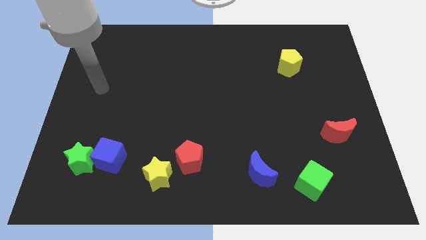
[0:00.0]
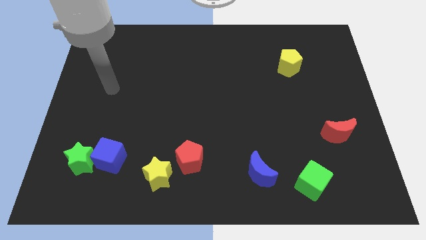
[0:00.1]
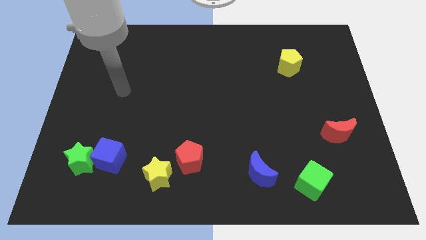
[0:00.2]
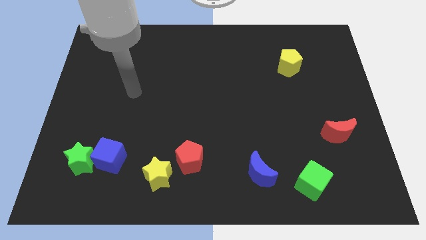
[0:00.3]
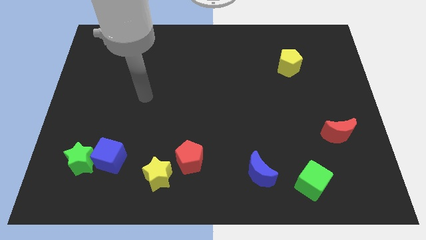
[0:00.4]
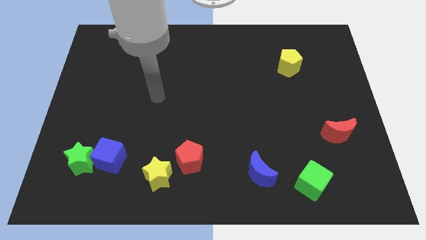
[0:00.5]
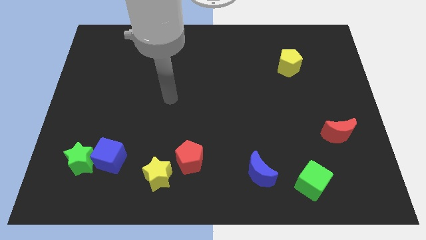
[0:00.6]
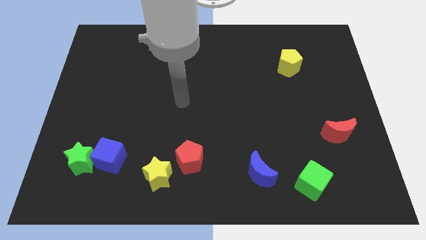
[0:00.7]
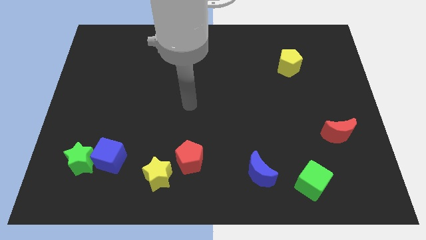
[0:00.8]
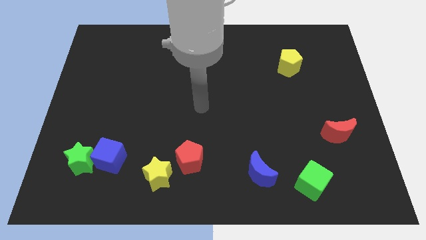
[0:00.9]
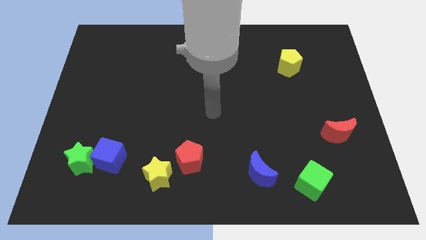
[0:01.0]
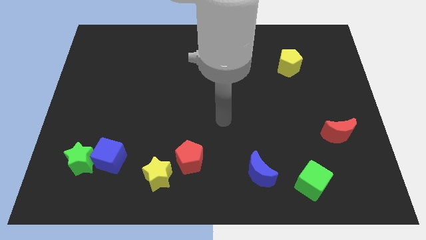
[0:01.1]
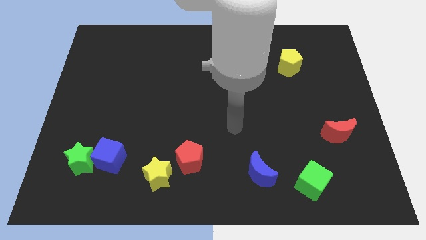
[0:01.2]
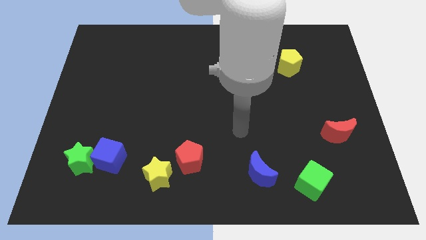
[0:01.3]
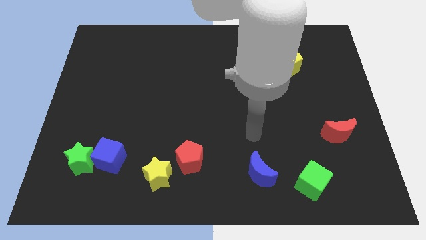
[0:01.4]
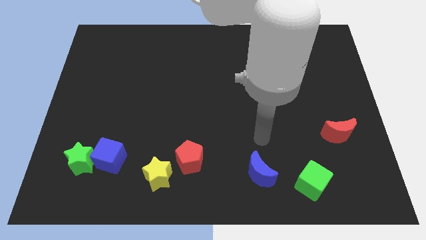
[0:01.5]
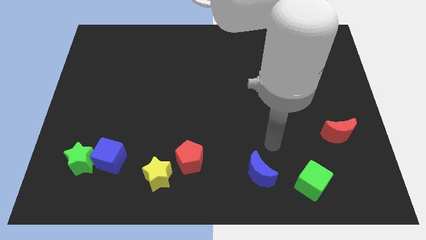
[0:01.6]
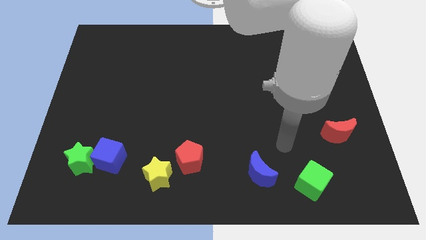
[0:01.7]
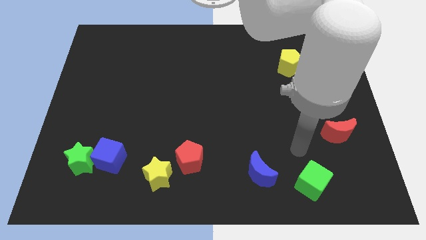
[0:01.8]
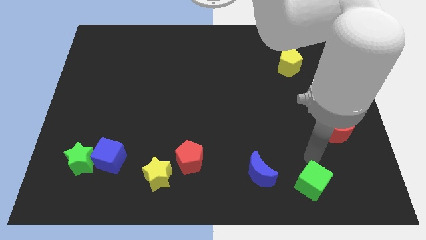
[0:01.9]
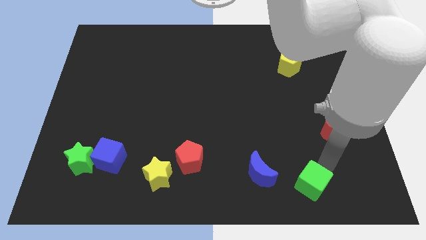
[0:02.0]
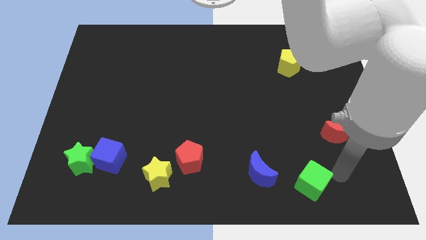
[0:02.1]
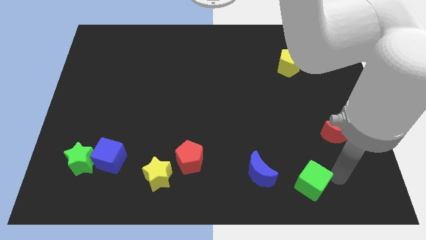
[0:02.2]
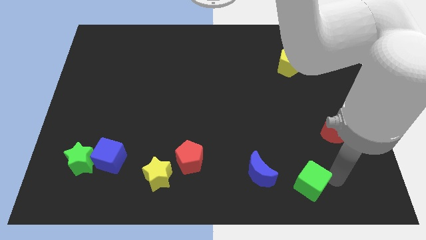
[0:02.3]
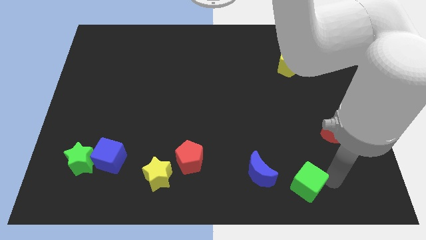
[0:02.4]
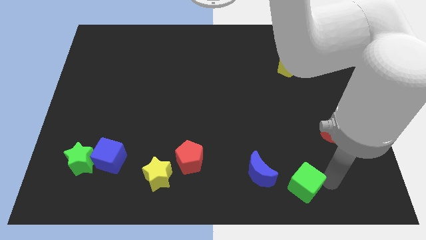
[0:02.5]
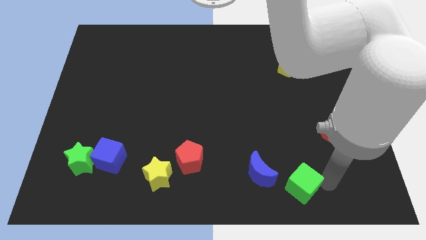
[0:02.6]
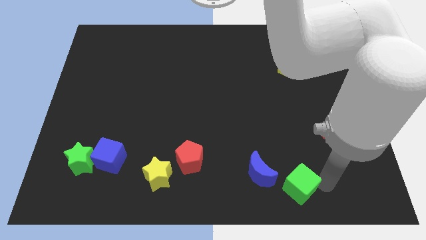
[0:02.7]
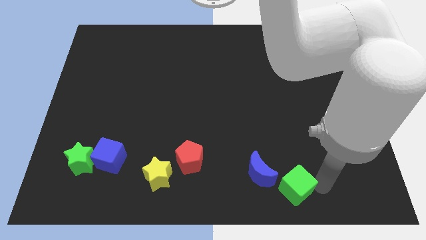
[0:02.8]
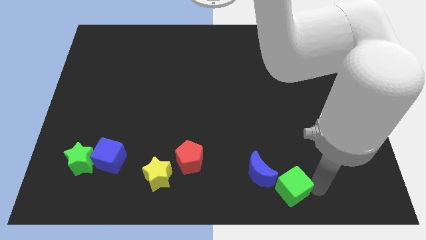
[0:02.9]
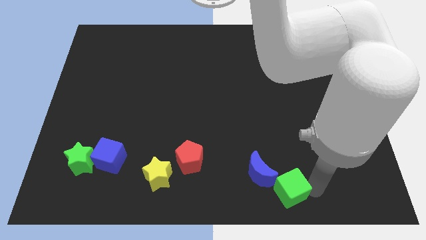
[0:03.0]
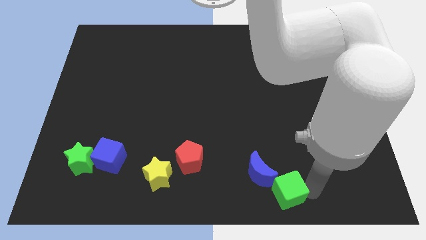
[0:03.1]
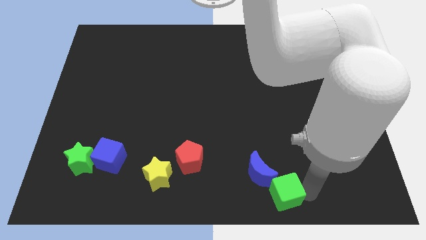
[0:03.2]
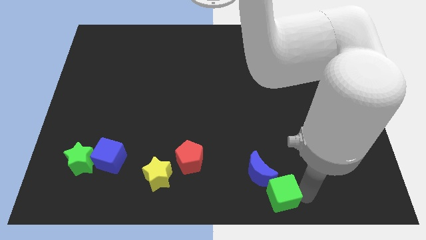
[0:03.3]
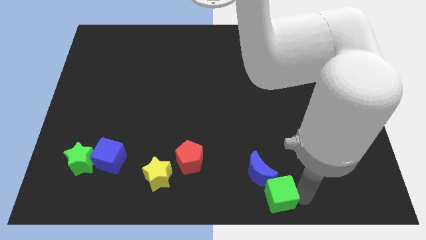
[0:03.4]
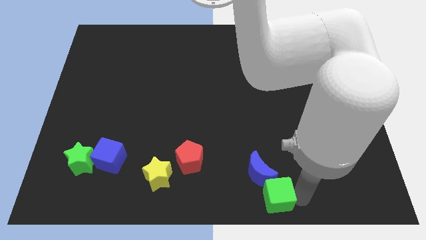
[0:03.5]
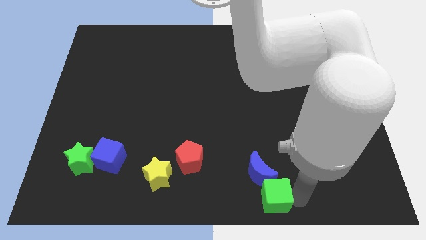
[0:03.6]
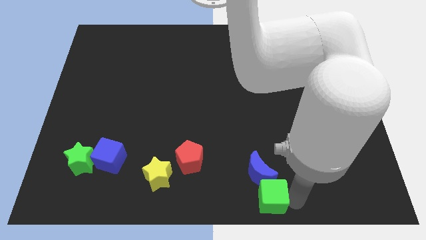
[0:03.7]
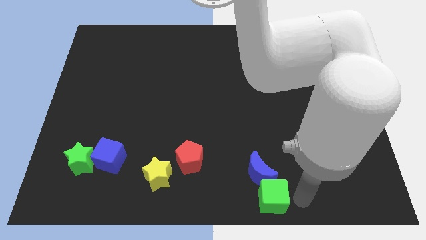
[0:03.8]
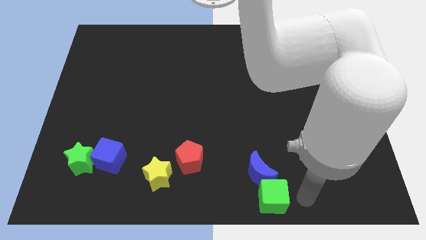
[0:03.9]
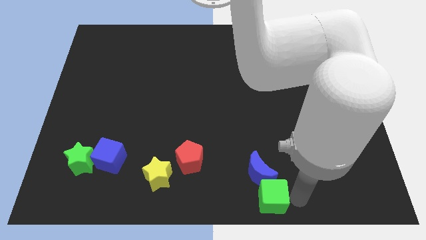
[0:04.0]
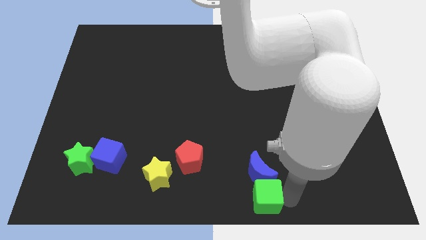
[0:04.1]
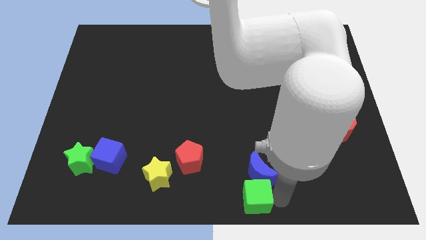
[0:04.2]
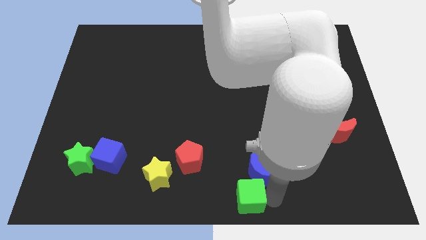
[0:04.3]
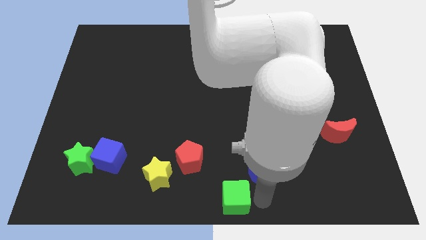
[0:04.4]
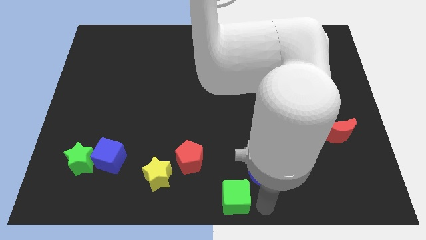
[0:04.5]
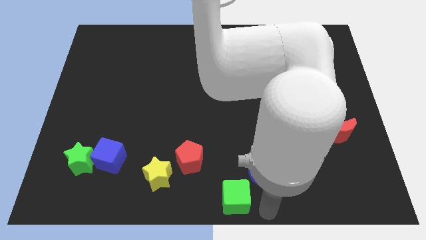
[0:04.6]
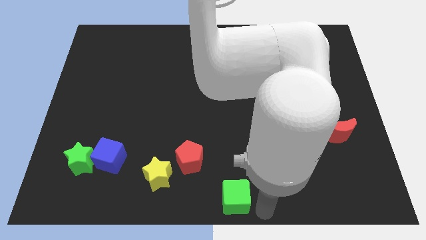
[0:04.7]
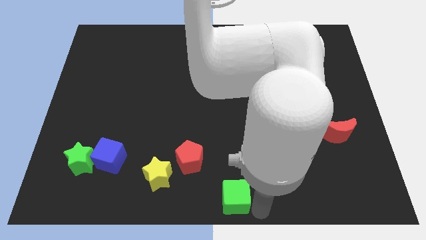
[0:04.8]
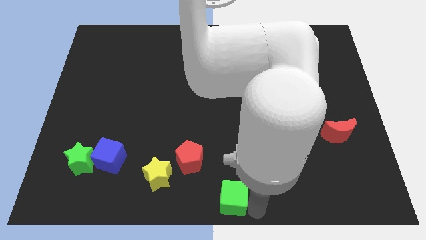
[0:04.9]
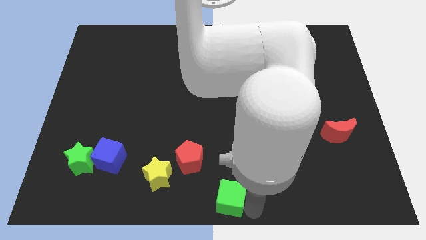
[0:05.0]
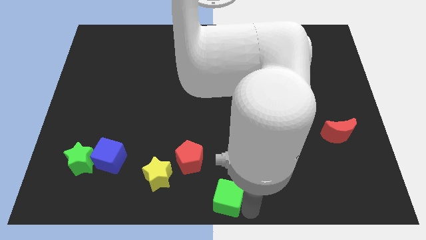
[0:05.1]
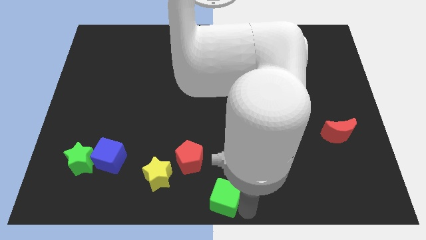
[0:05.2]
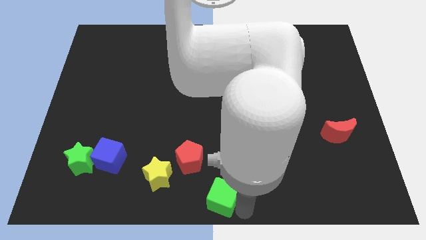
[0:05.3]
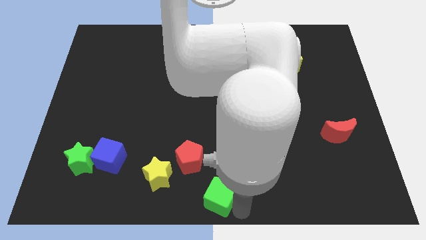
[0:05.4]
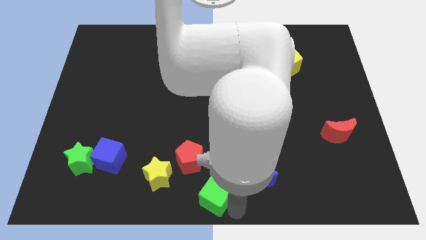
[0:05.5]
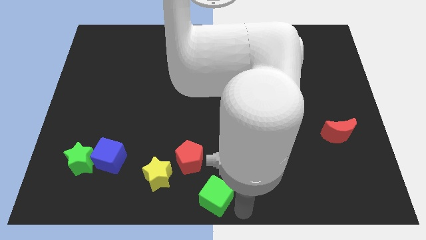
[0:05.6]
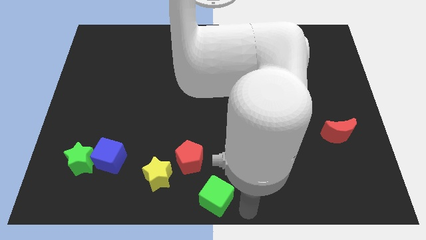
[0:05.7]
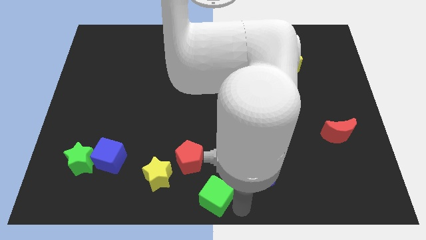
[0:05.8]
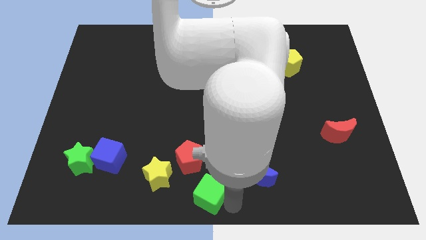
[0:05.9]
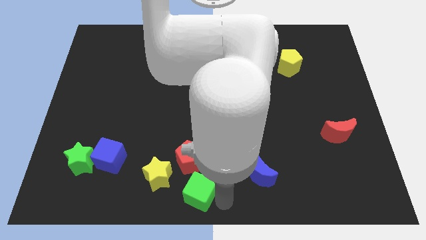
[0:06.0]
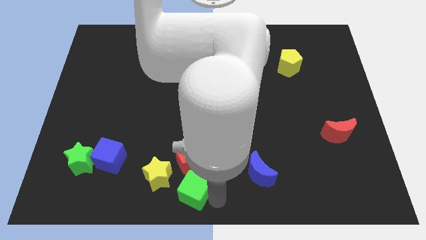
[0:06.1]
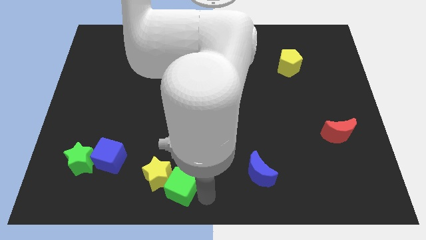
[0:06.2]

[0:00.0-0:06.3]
move the green cube towards the yellow star
